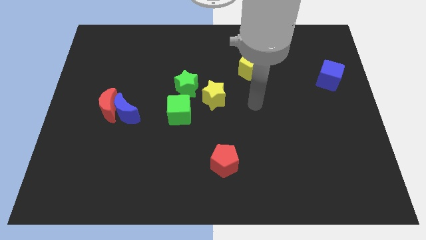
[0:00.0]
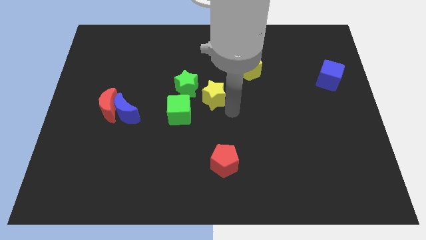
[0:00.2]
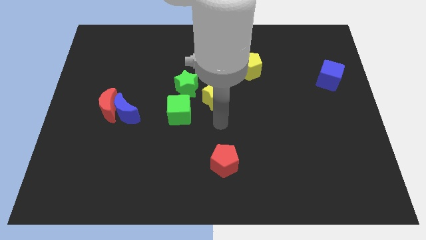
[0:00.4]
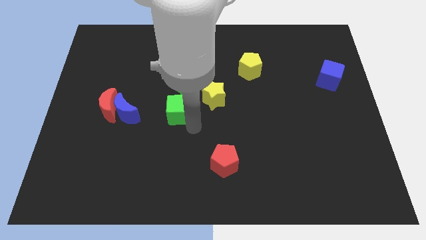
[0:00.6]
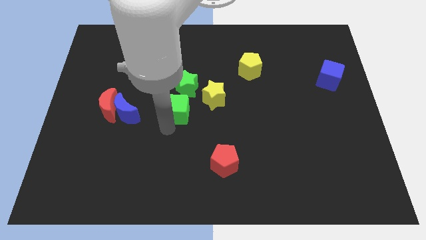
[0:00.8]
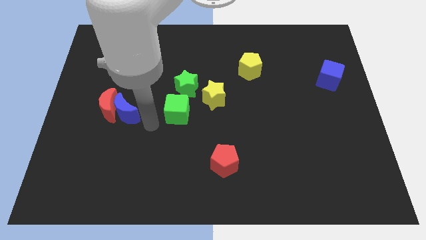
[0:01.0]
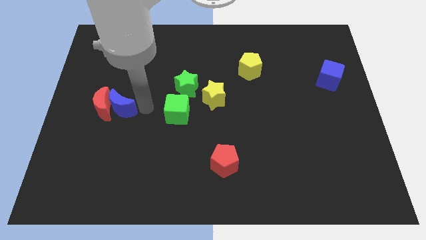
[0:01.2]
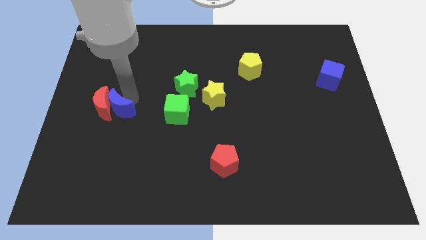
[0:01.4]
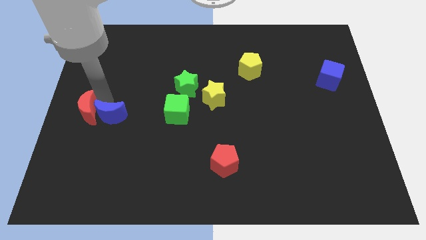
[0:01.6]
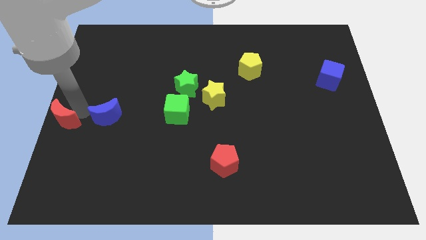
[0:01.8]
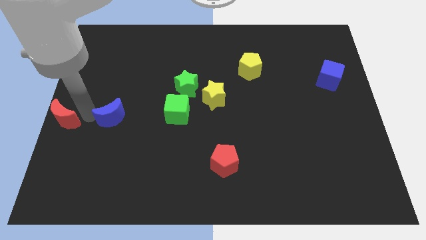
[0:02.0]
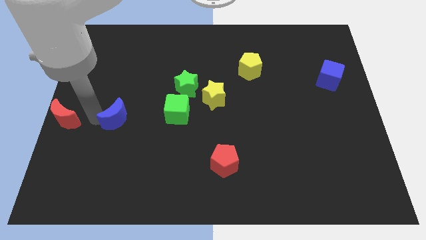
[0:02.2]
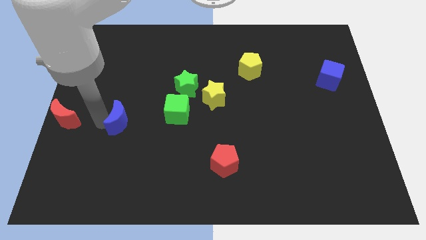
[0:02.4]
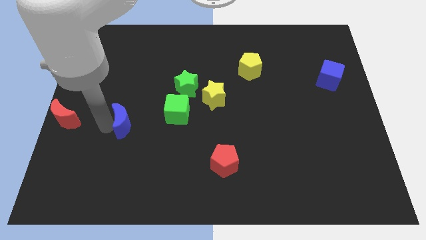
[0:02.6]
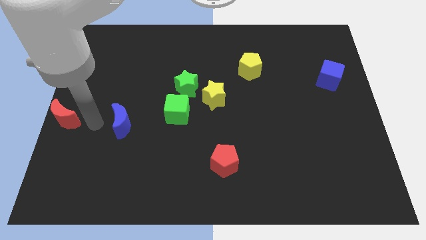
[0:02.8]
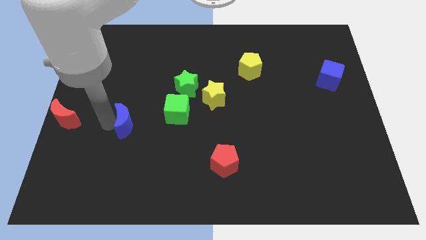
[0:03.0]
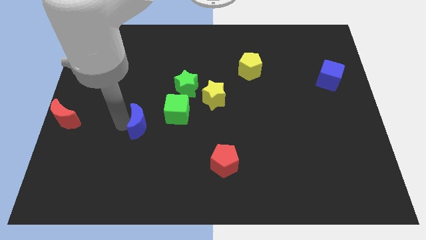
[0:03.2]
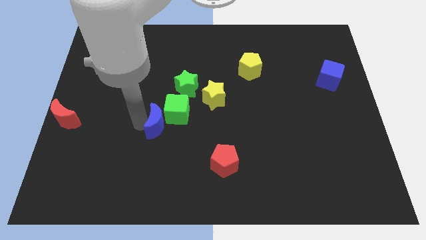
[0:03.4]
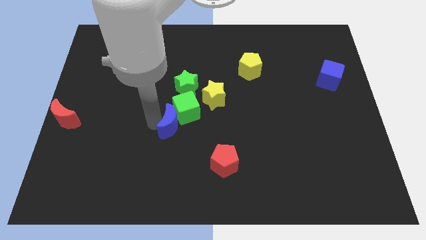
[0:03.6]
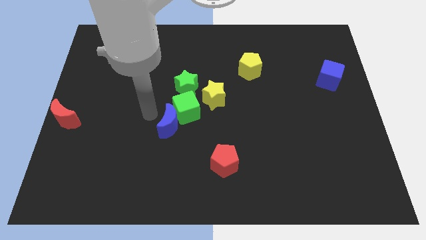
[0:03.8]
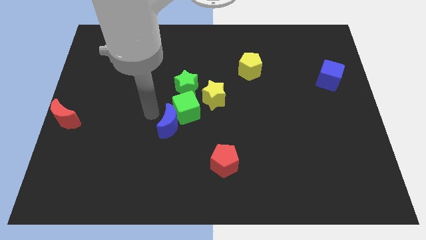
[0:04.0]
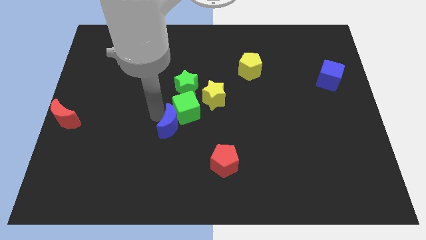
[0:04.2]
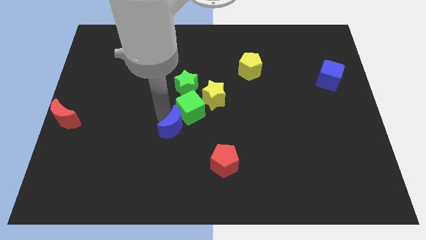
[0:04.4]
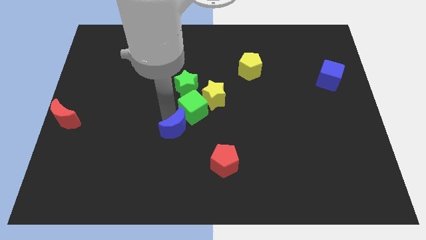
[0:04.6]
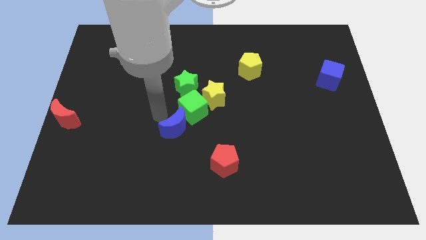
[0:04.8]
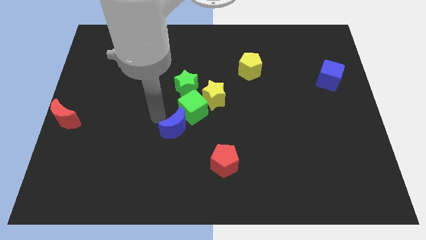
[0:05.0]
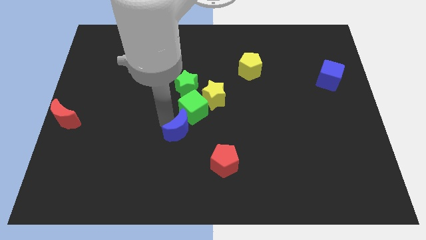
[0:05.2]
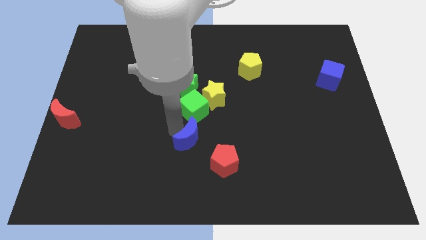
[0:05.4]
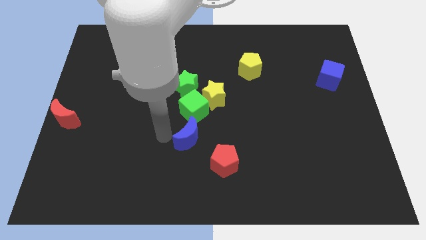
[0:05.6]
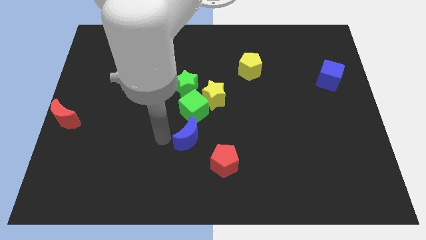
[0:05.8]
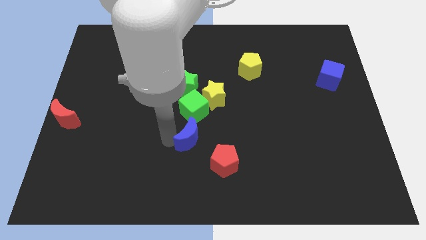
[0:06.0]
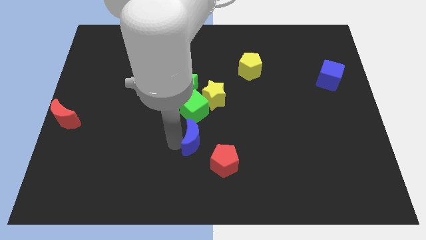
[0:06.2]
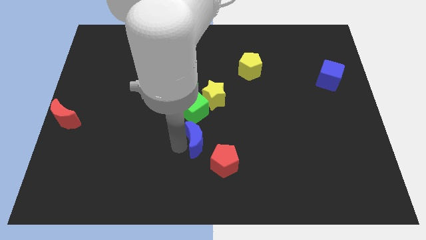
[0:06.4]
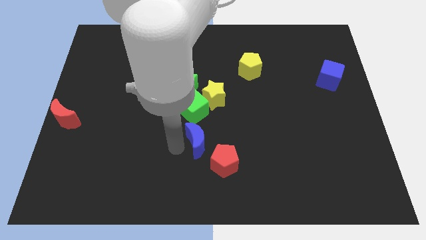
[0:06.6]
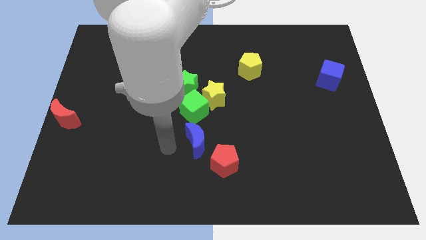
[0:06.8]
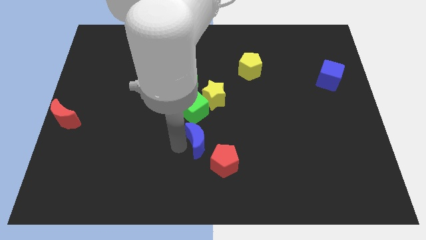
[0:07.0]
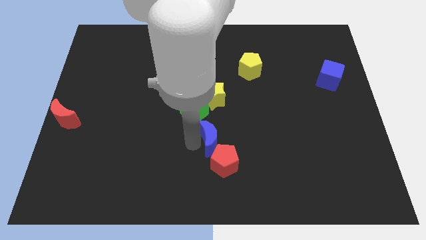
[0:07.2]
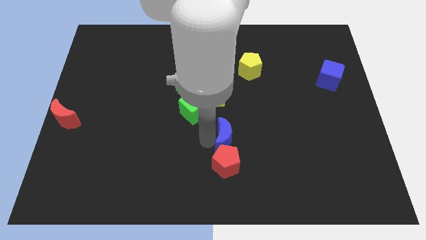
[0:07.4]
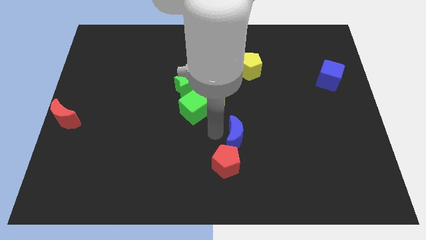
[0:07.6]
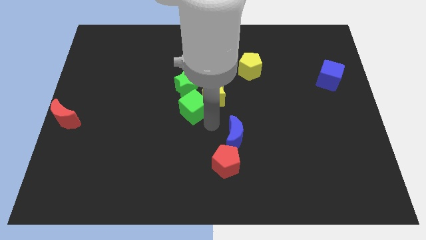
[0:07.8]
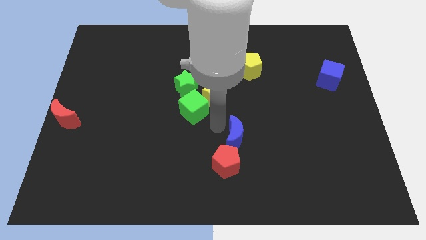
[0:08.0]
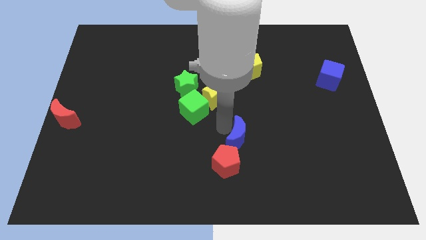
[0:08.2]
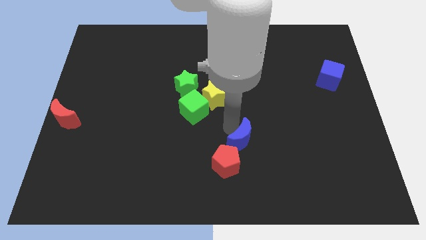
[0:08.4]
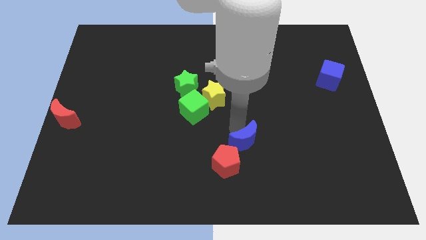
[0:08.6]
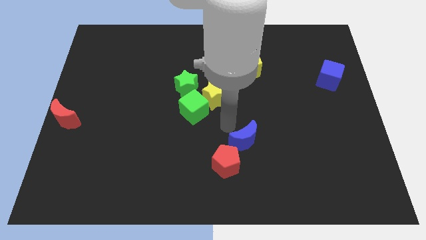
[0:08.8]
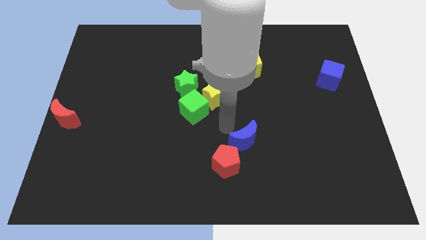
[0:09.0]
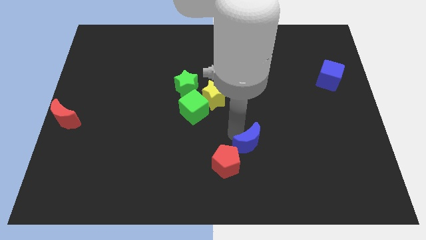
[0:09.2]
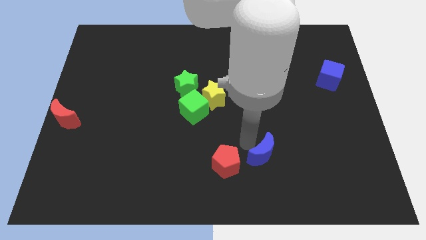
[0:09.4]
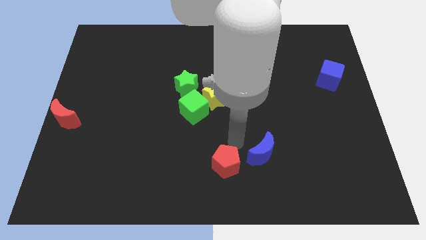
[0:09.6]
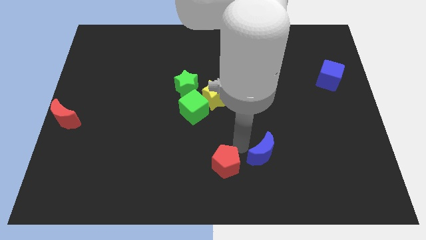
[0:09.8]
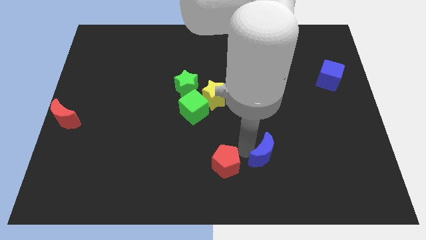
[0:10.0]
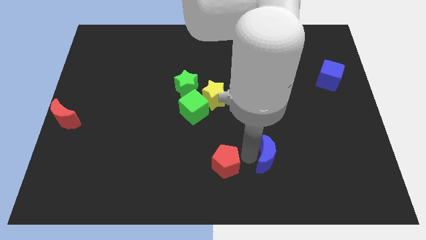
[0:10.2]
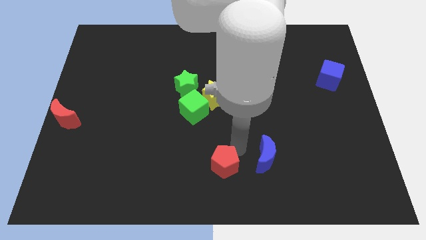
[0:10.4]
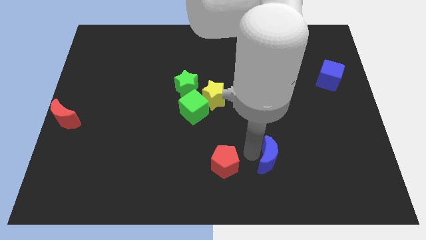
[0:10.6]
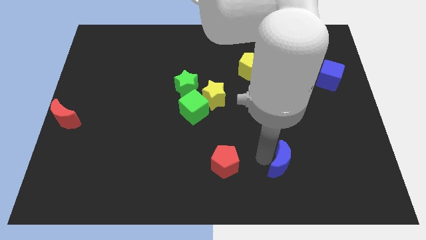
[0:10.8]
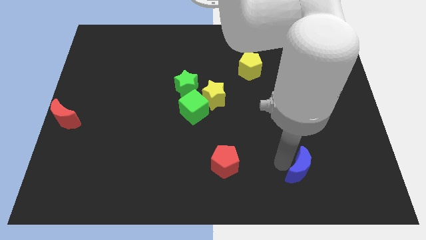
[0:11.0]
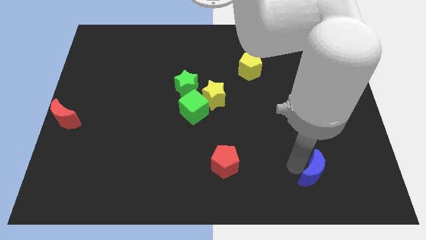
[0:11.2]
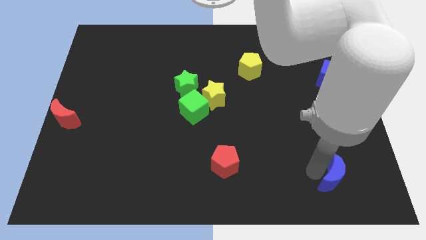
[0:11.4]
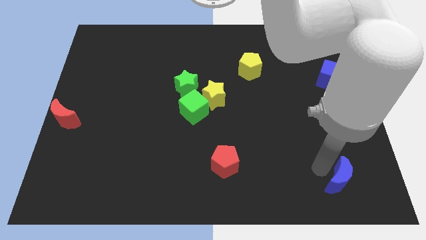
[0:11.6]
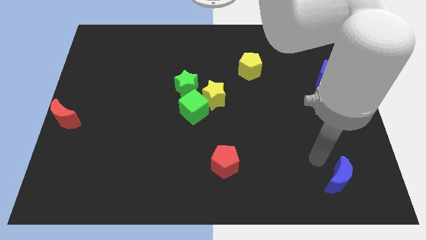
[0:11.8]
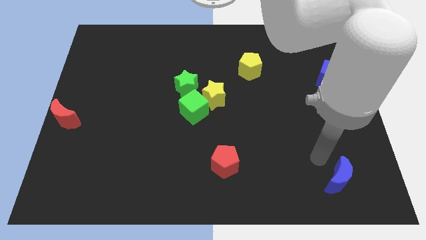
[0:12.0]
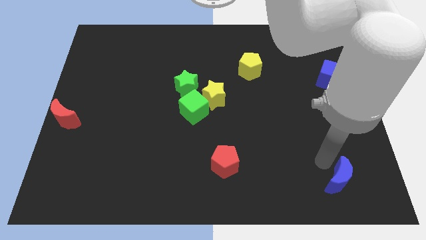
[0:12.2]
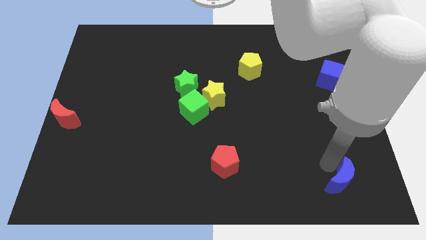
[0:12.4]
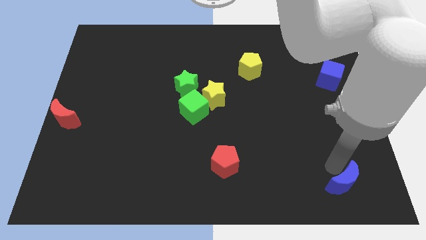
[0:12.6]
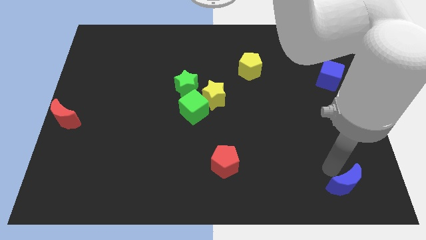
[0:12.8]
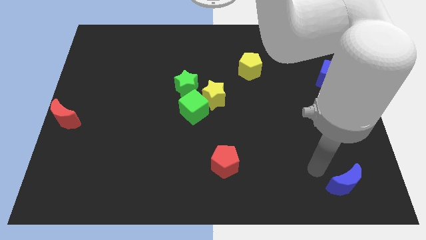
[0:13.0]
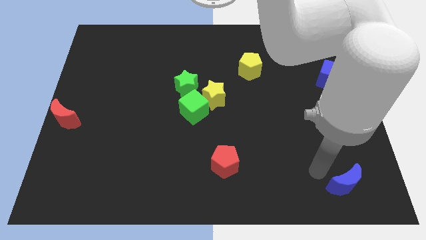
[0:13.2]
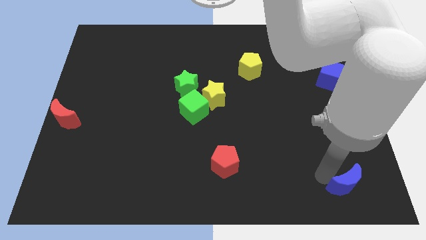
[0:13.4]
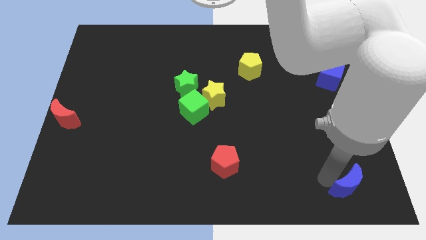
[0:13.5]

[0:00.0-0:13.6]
put the blue moon to the bottom right
